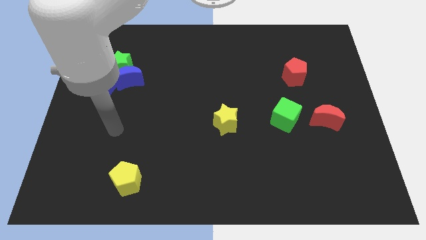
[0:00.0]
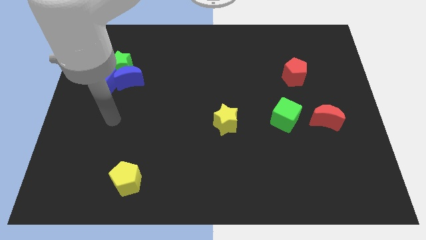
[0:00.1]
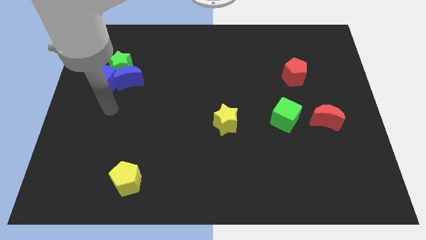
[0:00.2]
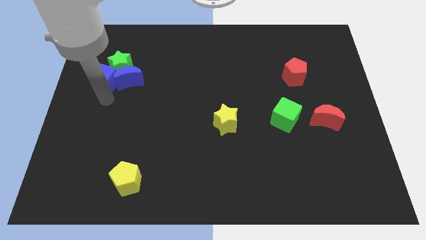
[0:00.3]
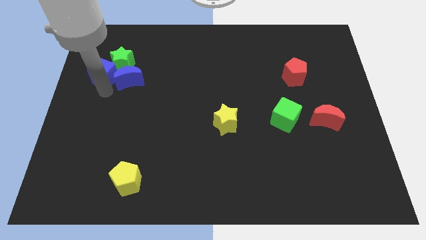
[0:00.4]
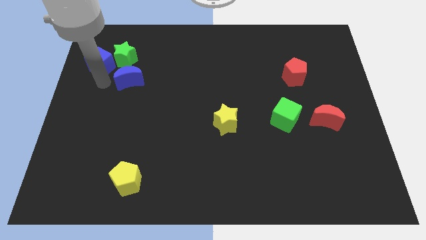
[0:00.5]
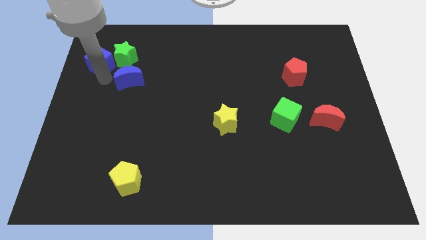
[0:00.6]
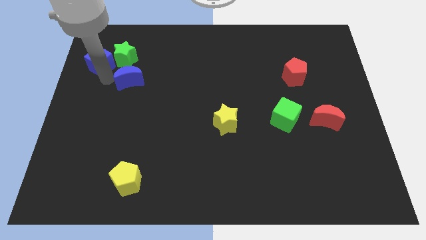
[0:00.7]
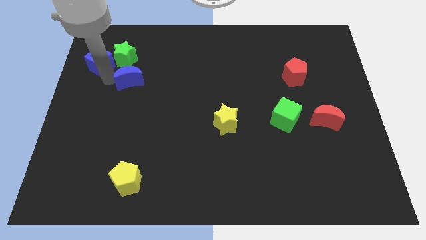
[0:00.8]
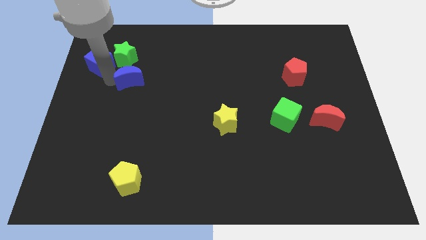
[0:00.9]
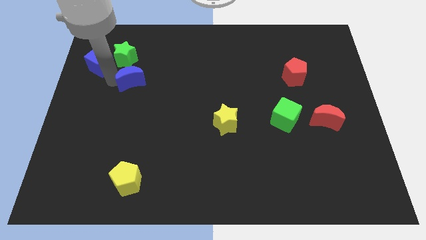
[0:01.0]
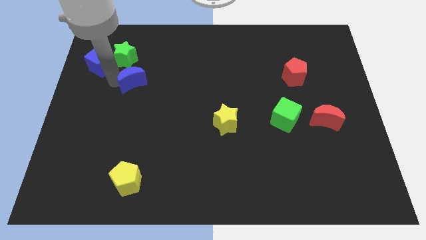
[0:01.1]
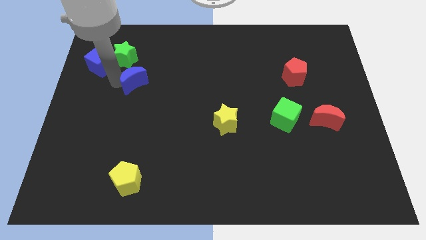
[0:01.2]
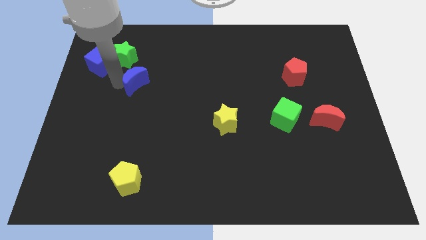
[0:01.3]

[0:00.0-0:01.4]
separate the blue moon from the green star and blue cube

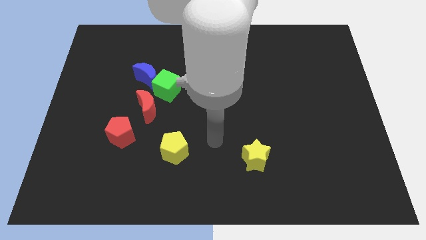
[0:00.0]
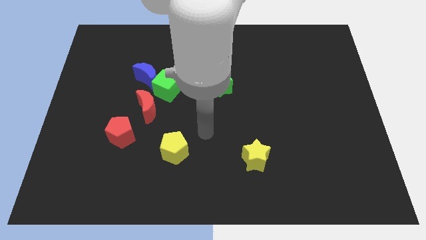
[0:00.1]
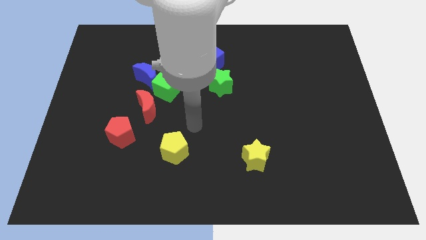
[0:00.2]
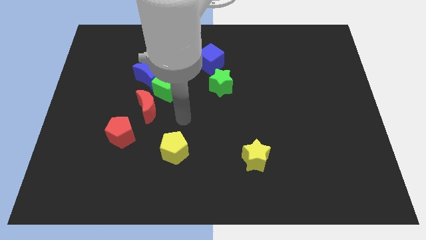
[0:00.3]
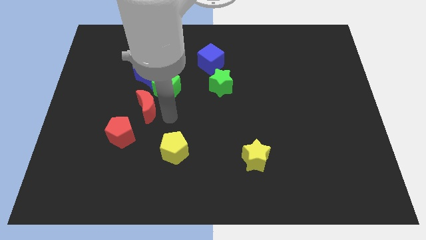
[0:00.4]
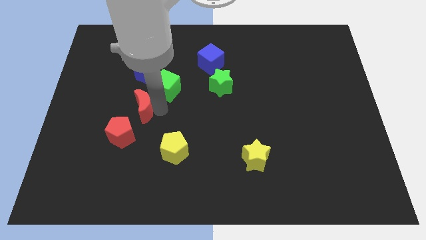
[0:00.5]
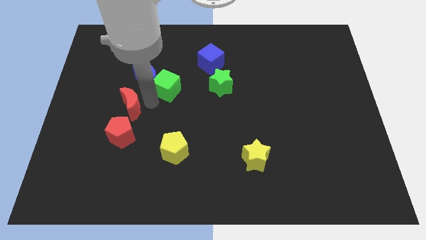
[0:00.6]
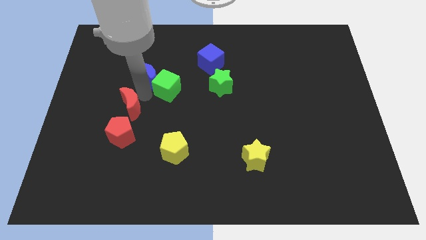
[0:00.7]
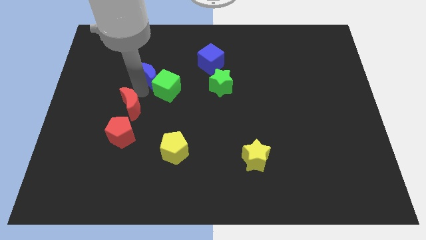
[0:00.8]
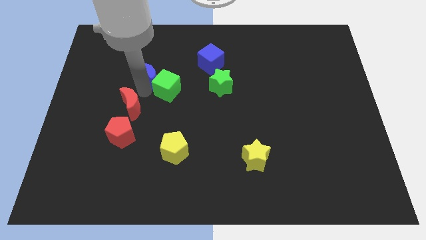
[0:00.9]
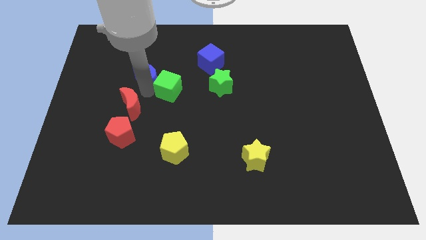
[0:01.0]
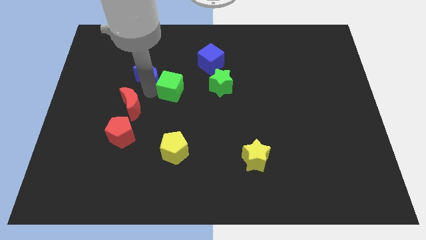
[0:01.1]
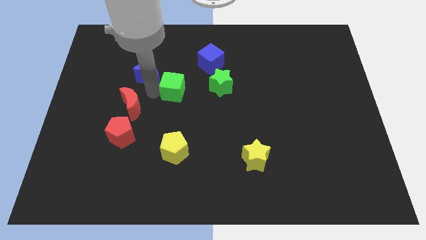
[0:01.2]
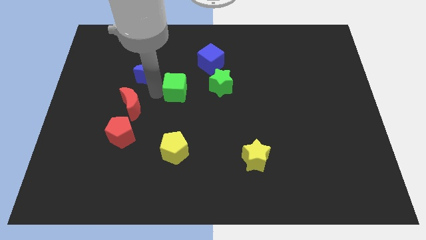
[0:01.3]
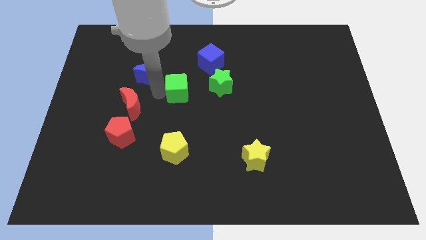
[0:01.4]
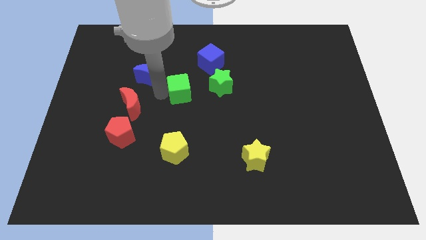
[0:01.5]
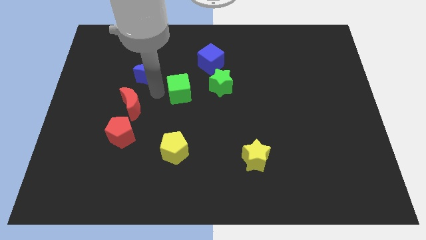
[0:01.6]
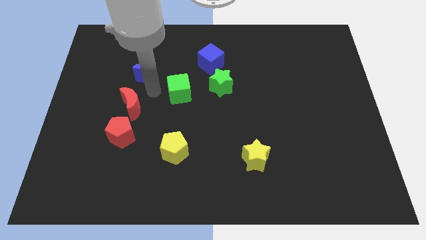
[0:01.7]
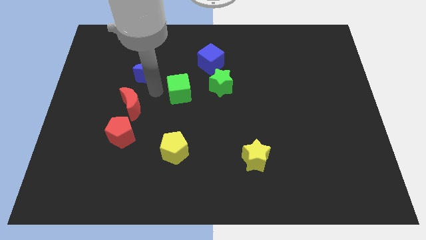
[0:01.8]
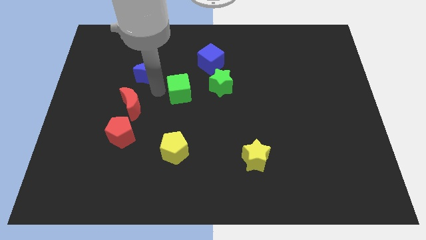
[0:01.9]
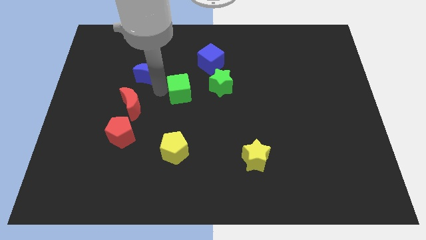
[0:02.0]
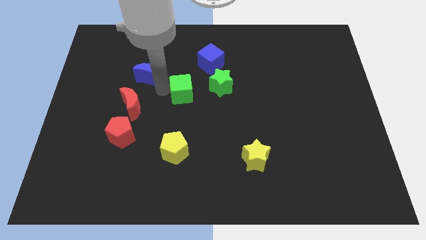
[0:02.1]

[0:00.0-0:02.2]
separate the green cube from the blue moon and red moon

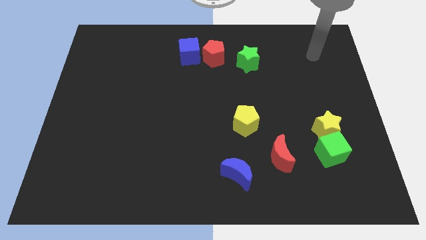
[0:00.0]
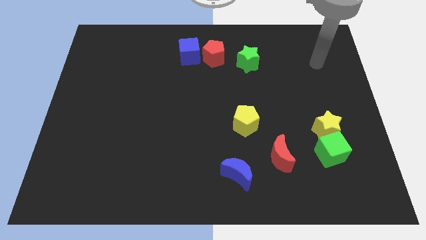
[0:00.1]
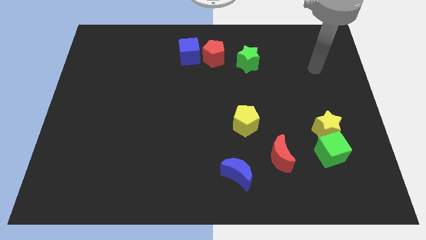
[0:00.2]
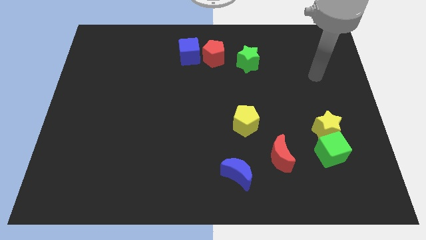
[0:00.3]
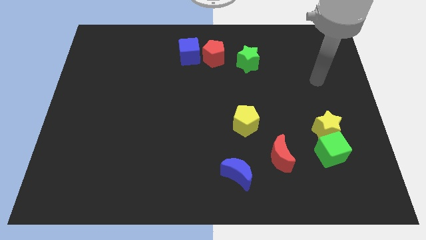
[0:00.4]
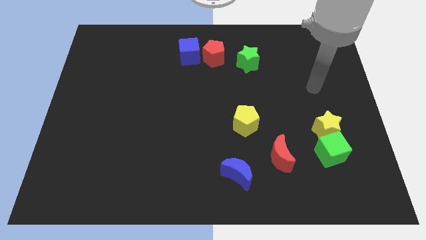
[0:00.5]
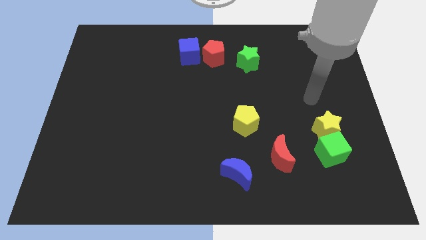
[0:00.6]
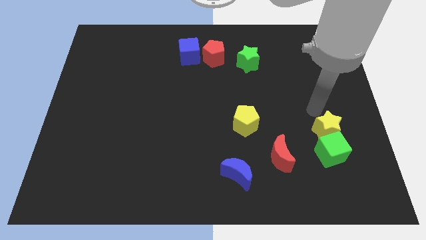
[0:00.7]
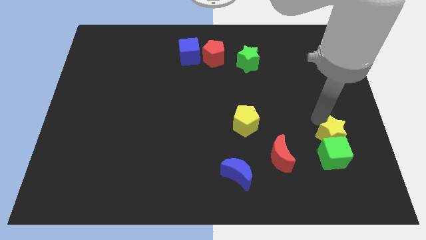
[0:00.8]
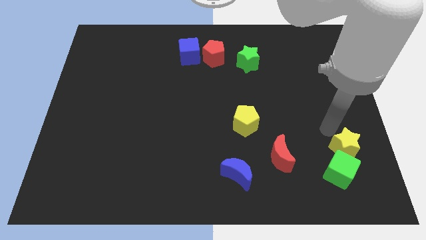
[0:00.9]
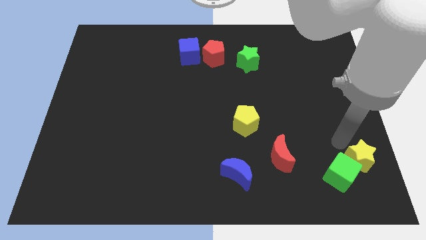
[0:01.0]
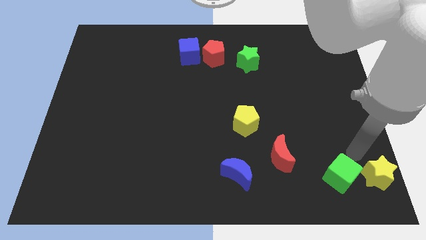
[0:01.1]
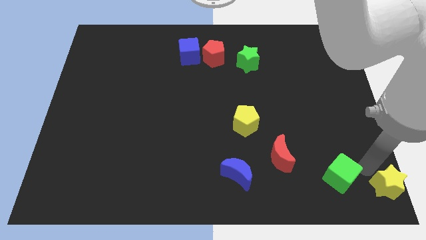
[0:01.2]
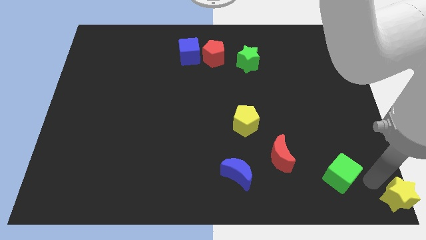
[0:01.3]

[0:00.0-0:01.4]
separate the green cube from the yellow star

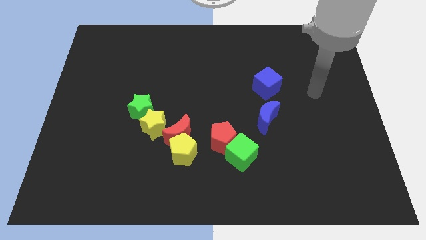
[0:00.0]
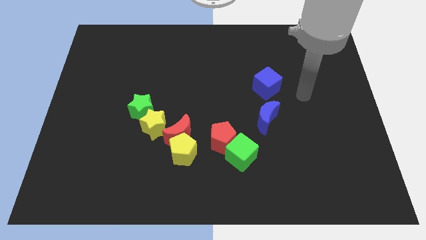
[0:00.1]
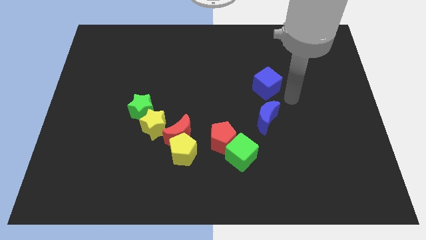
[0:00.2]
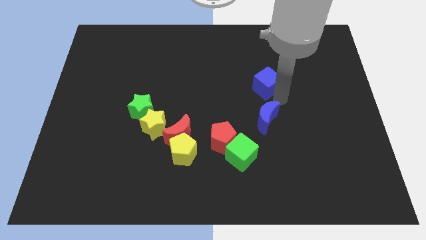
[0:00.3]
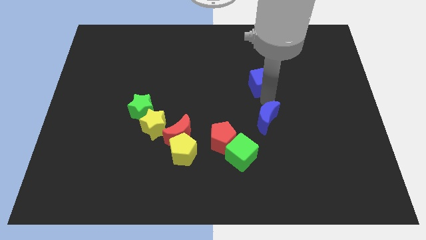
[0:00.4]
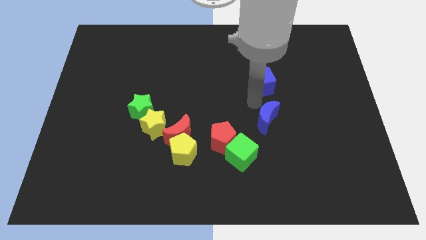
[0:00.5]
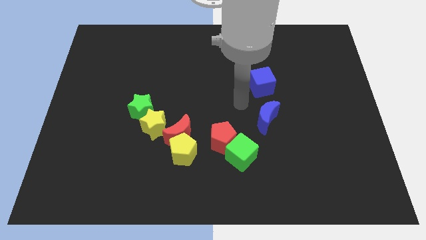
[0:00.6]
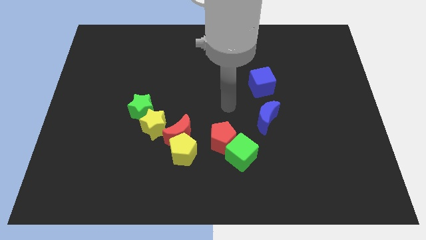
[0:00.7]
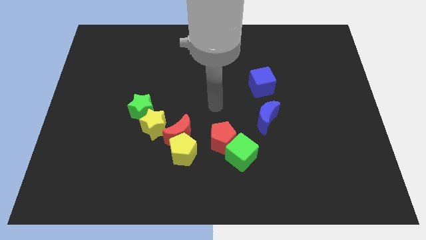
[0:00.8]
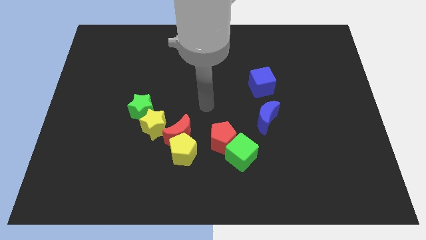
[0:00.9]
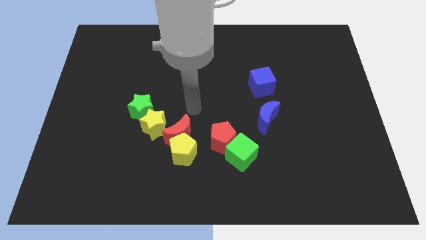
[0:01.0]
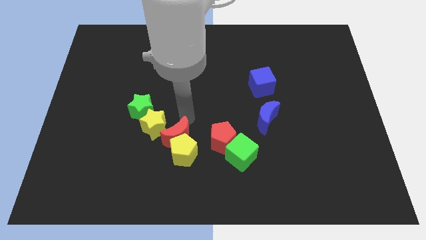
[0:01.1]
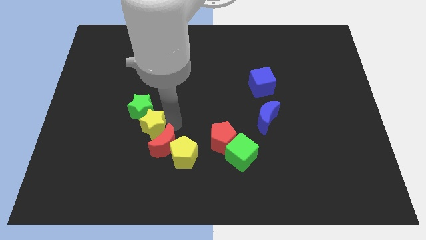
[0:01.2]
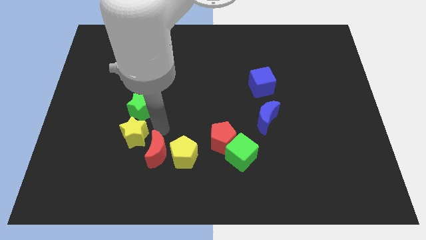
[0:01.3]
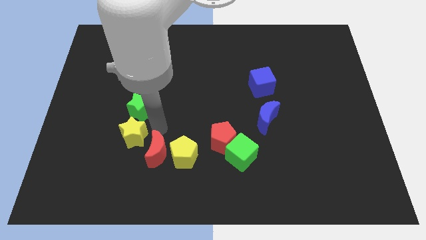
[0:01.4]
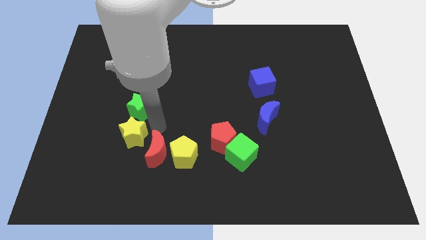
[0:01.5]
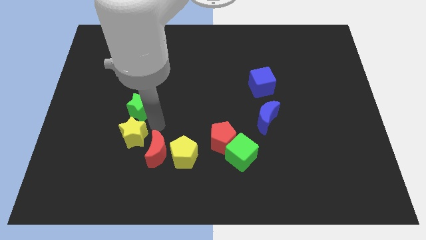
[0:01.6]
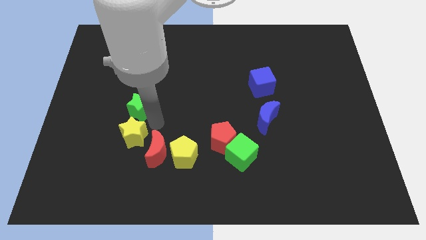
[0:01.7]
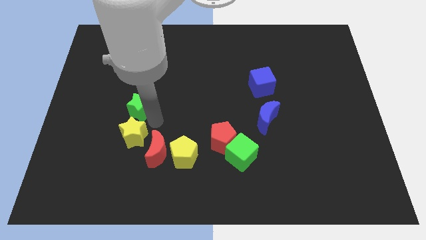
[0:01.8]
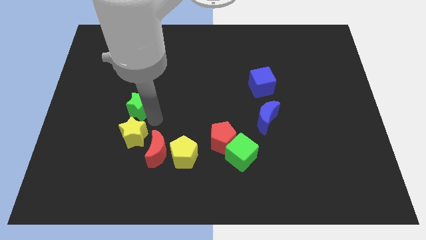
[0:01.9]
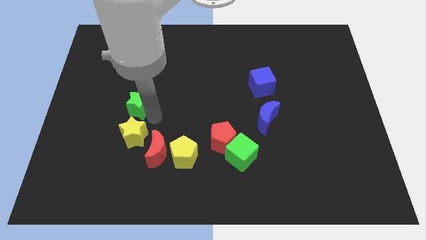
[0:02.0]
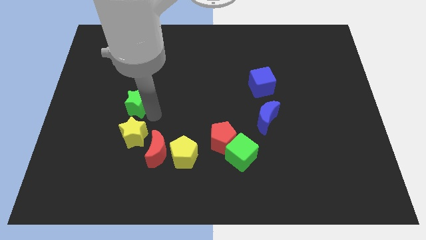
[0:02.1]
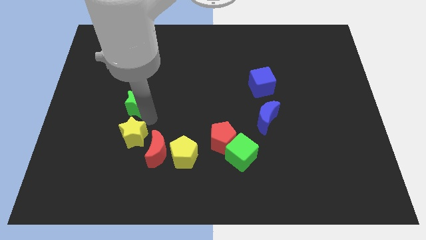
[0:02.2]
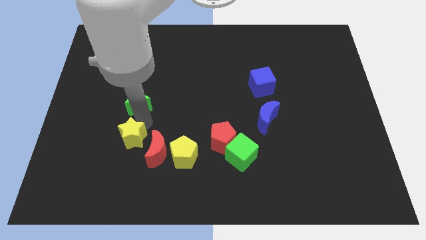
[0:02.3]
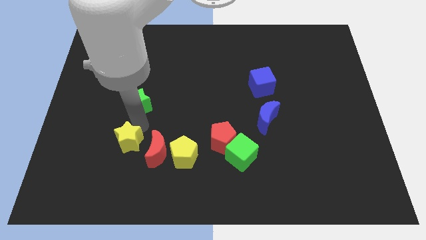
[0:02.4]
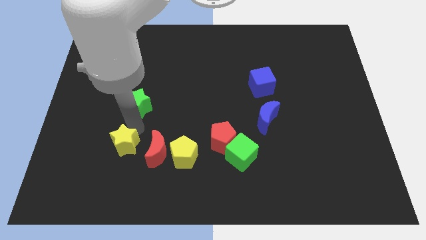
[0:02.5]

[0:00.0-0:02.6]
pull the green star apart from the yellow star

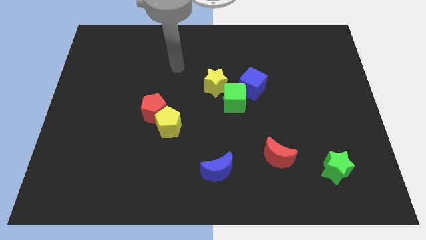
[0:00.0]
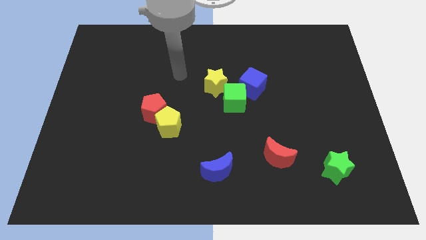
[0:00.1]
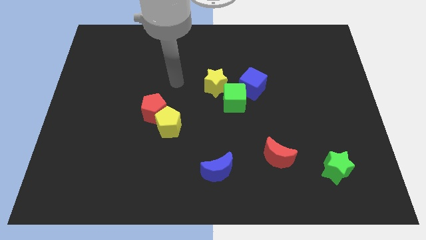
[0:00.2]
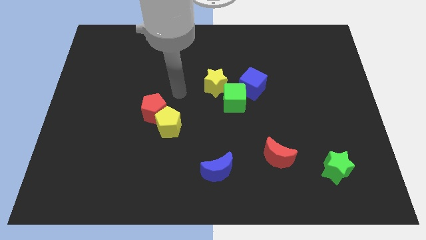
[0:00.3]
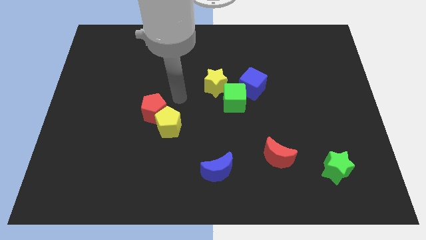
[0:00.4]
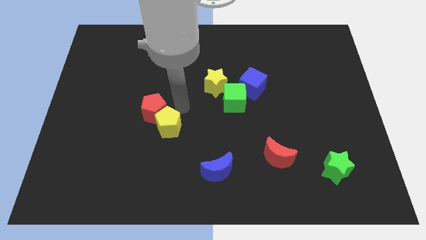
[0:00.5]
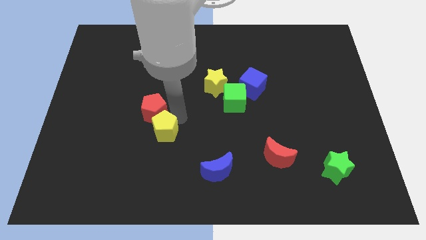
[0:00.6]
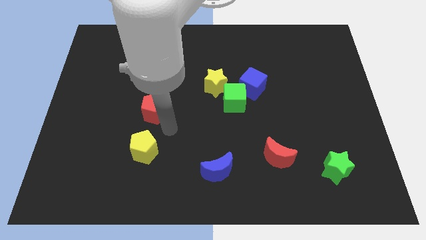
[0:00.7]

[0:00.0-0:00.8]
pull the red pentagon apart from the yellow pentagon

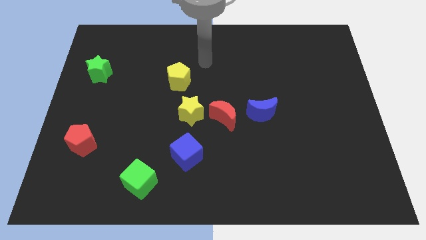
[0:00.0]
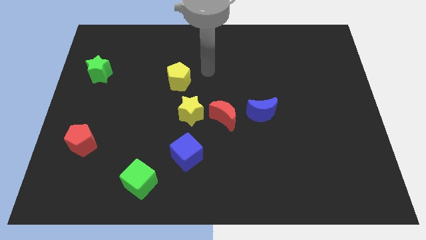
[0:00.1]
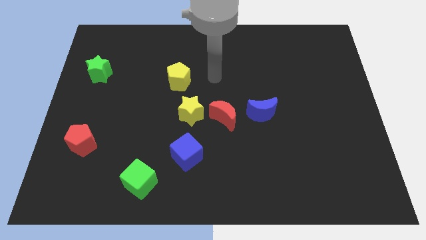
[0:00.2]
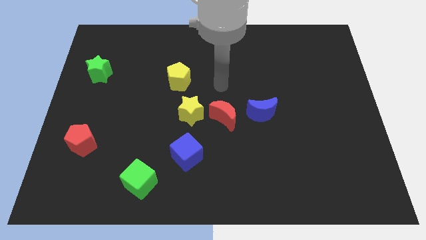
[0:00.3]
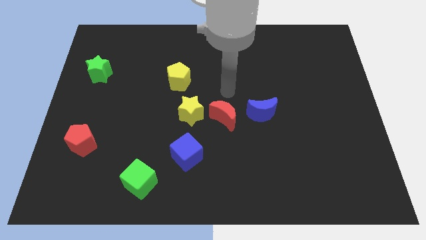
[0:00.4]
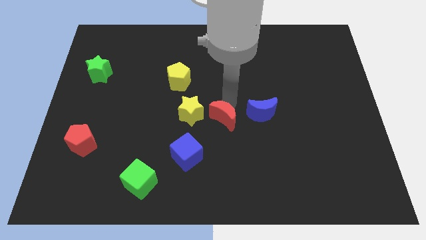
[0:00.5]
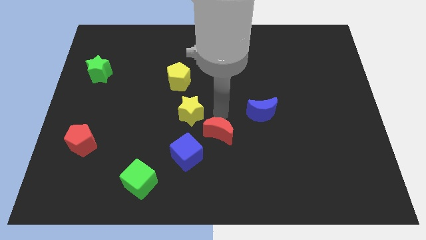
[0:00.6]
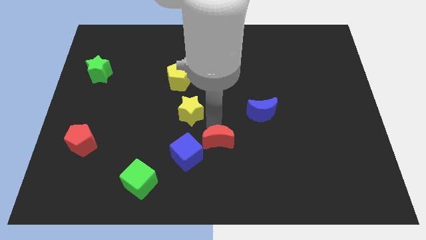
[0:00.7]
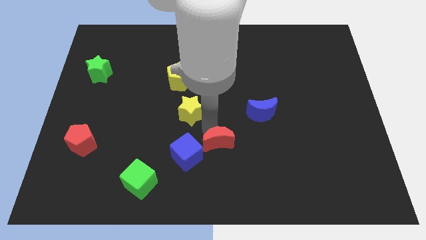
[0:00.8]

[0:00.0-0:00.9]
move the yellow star away from the red moon
